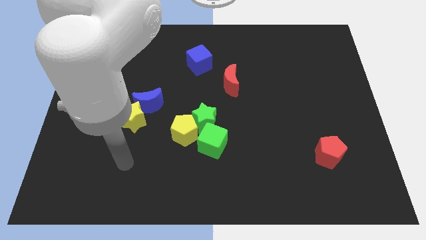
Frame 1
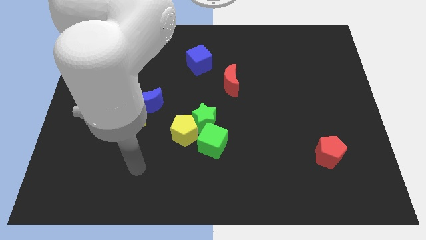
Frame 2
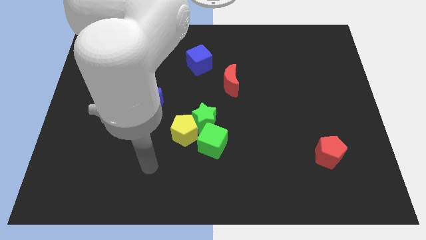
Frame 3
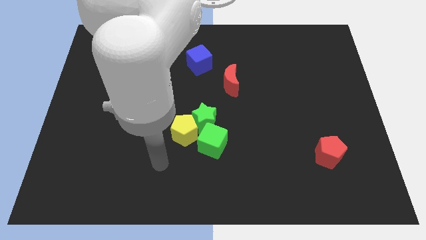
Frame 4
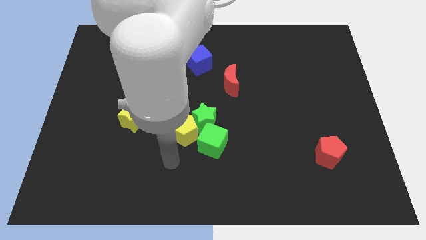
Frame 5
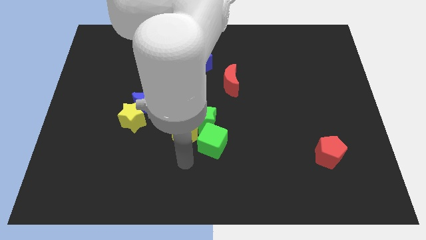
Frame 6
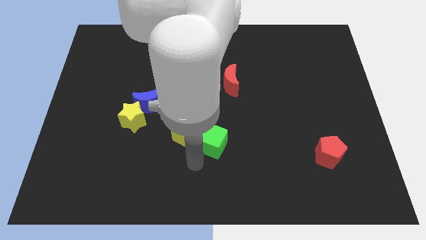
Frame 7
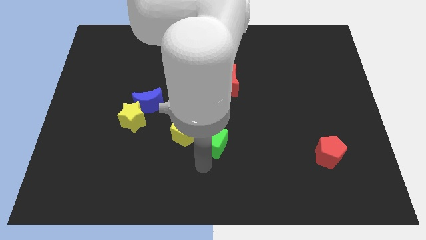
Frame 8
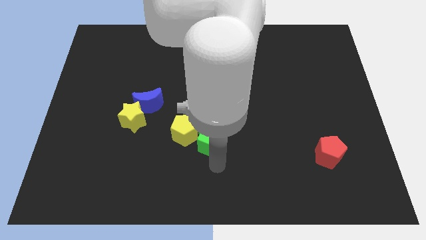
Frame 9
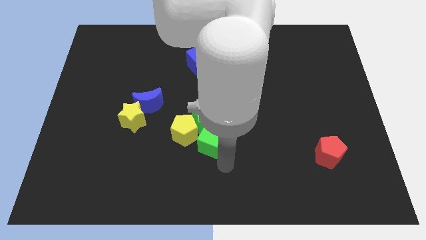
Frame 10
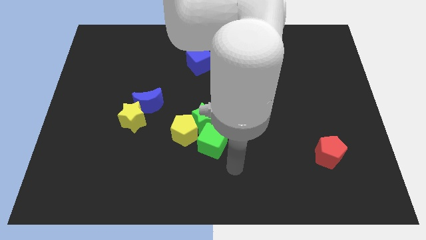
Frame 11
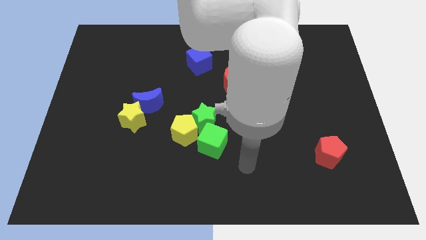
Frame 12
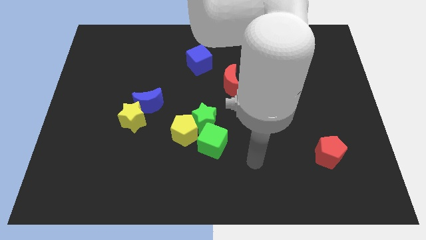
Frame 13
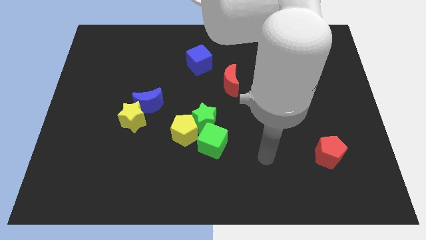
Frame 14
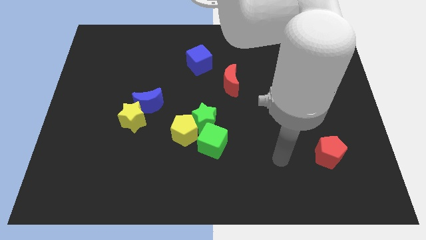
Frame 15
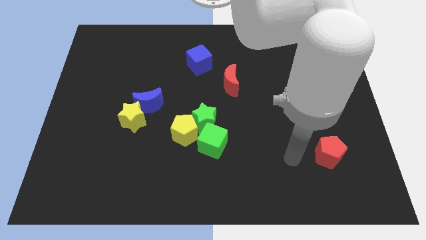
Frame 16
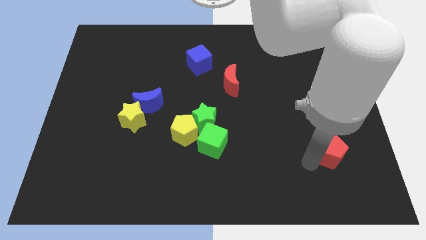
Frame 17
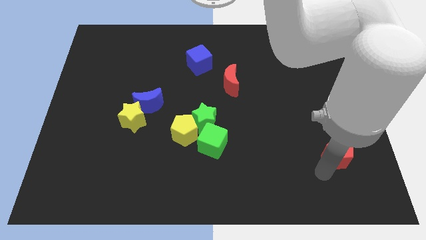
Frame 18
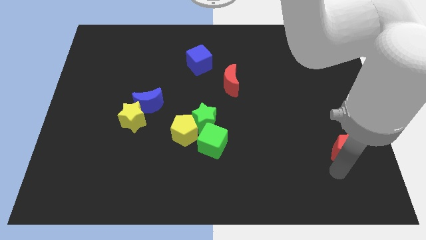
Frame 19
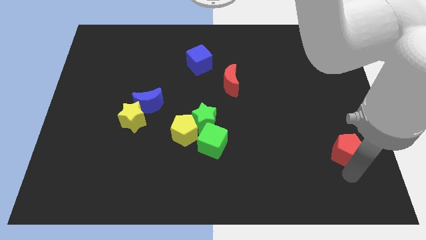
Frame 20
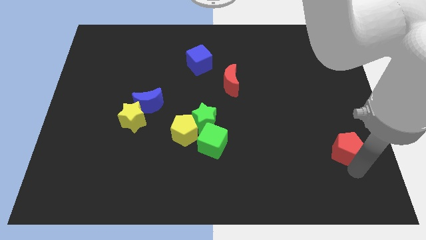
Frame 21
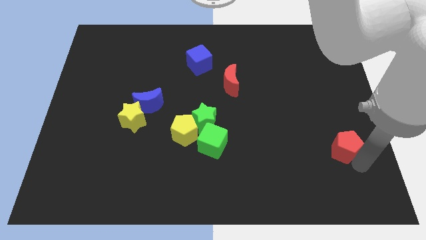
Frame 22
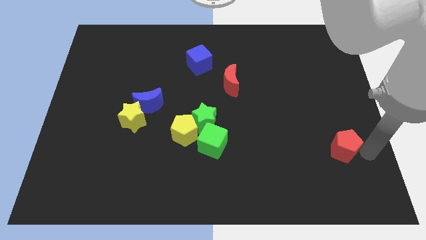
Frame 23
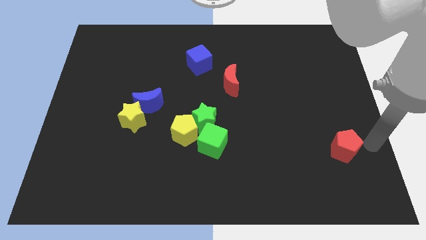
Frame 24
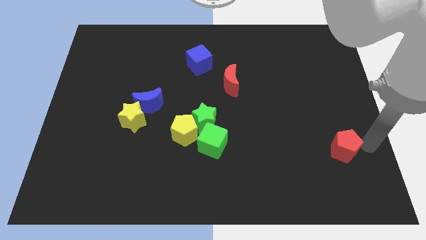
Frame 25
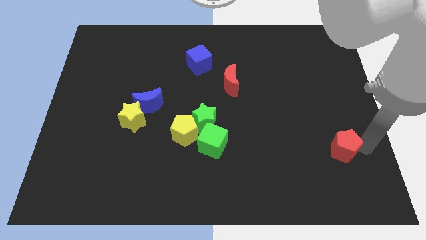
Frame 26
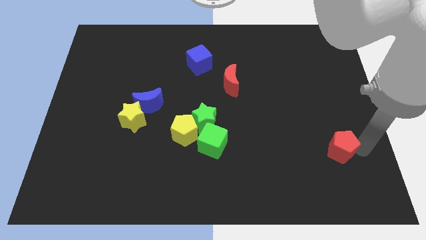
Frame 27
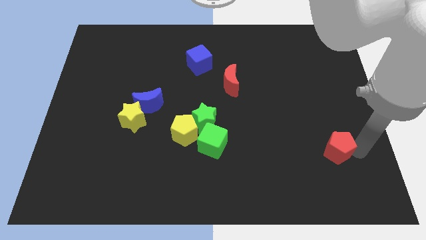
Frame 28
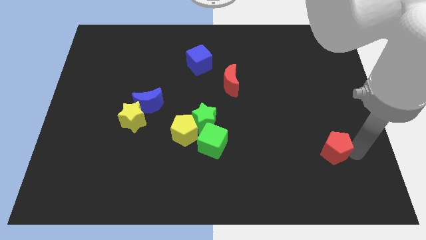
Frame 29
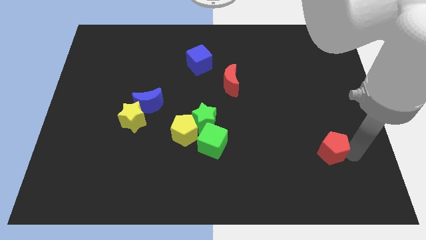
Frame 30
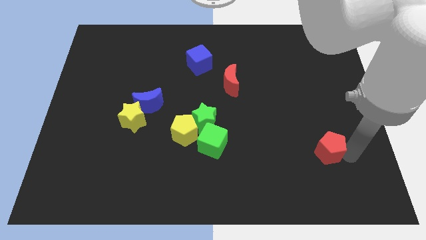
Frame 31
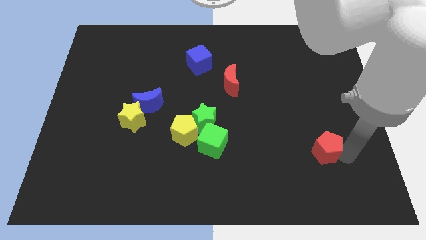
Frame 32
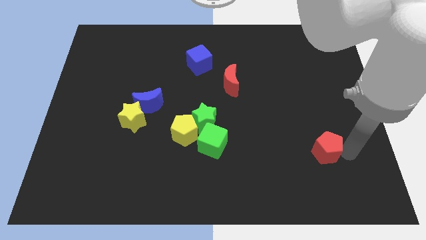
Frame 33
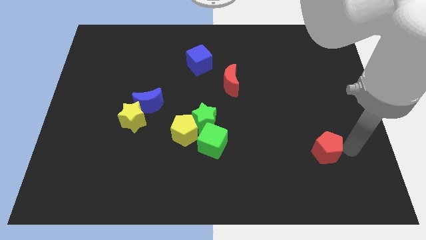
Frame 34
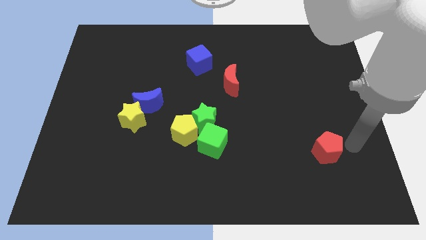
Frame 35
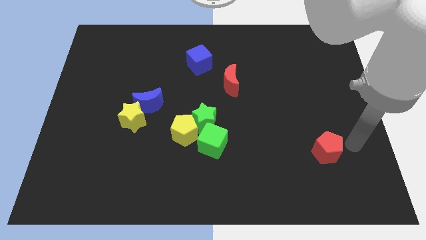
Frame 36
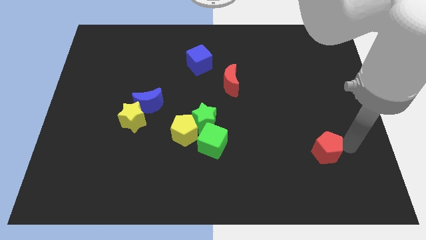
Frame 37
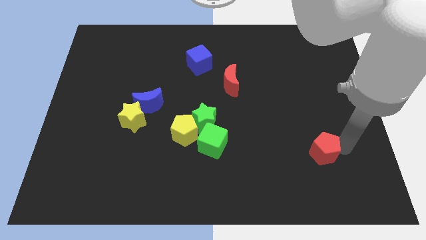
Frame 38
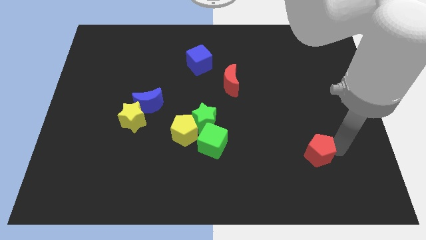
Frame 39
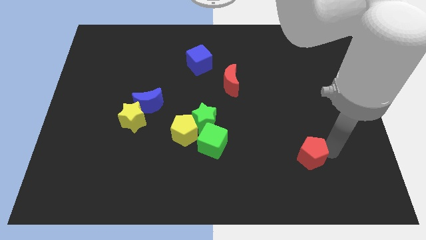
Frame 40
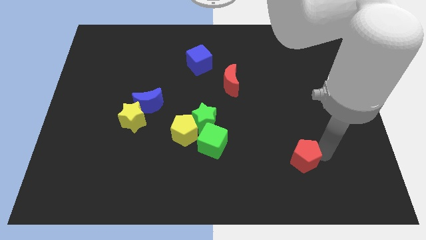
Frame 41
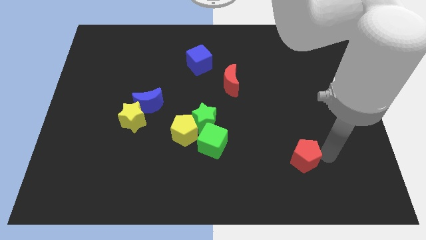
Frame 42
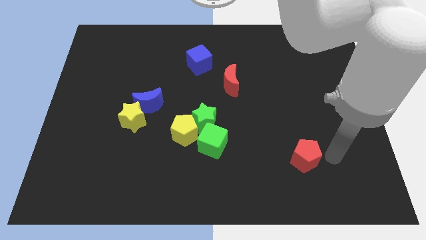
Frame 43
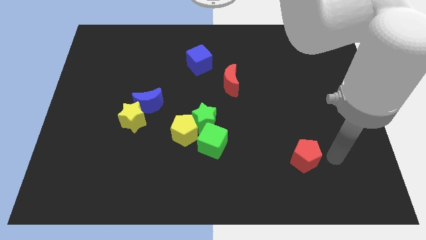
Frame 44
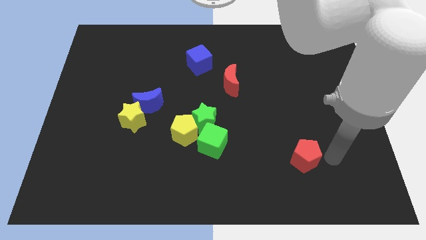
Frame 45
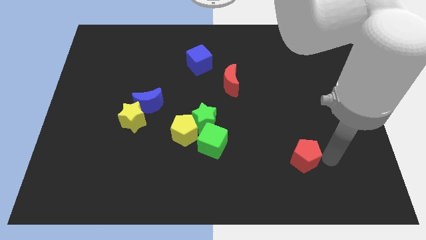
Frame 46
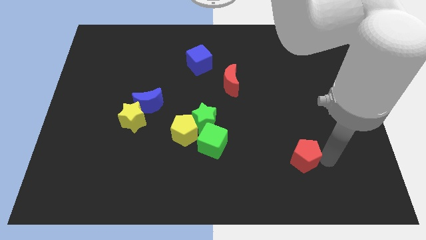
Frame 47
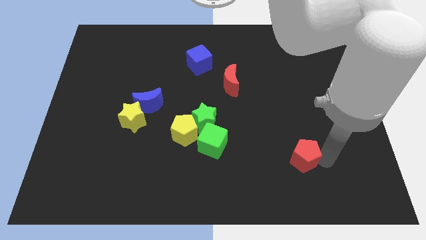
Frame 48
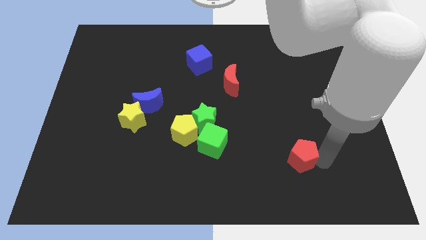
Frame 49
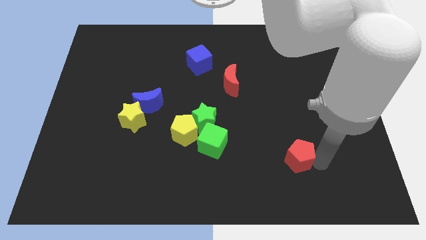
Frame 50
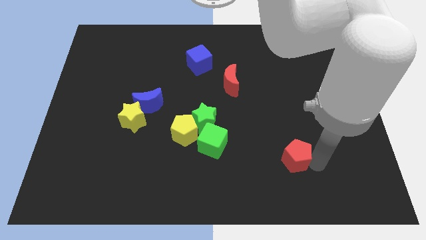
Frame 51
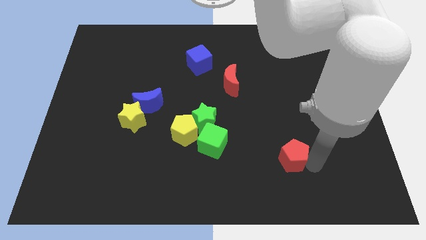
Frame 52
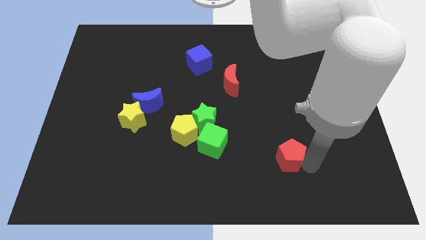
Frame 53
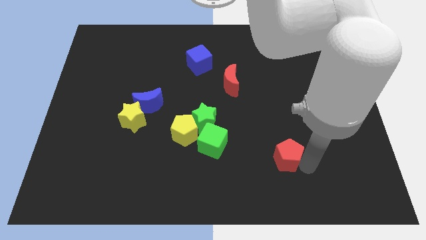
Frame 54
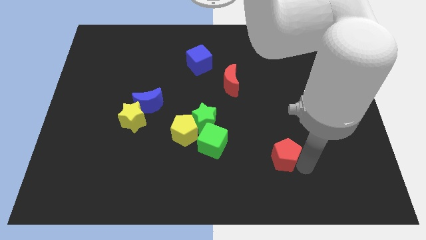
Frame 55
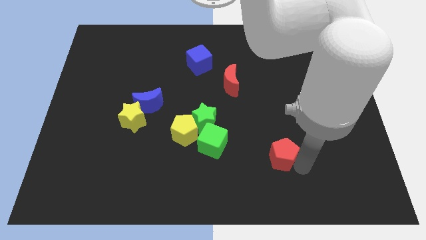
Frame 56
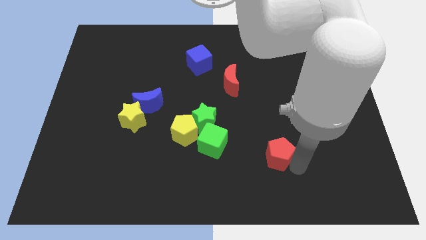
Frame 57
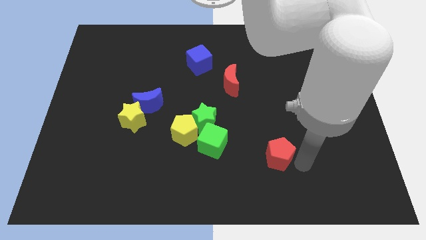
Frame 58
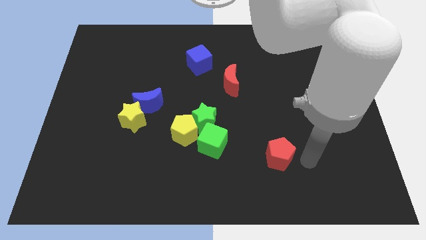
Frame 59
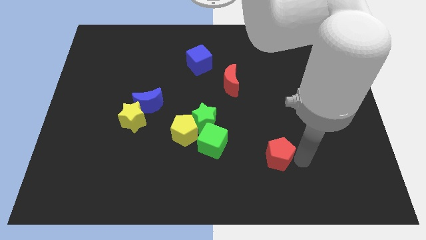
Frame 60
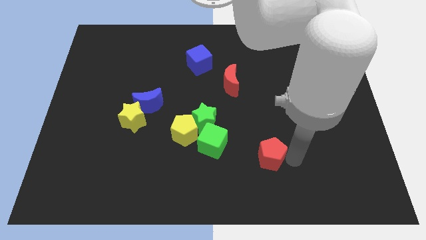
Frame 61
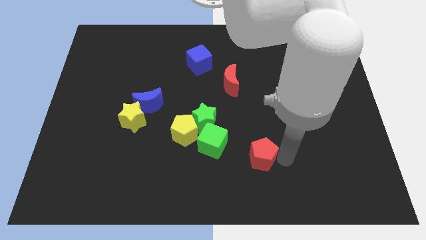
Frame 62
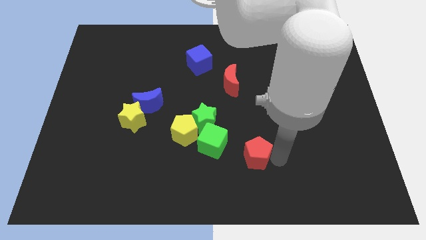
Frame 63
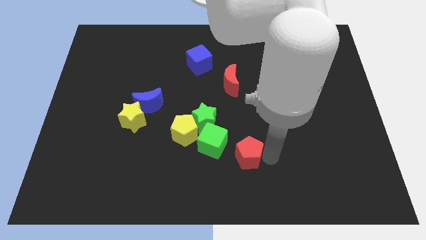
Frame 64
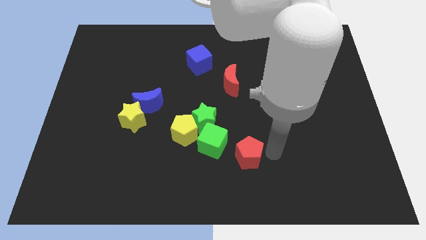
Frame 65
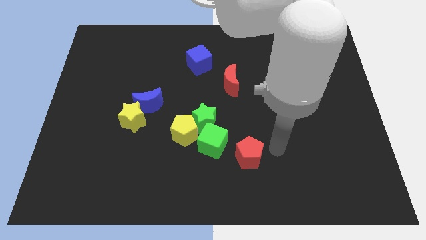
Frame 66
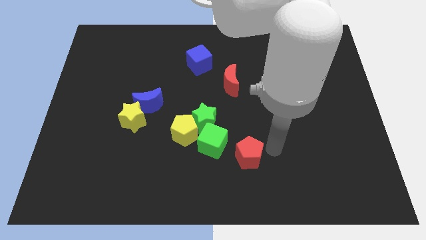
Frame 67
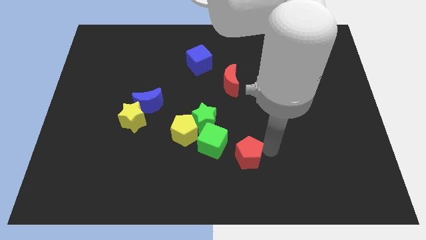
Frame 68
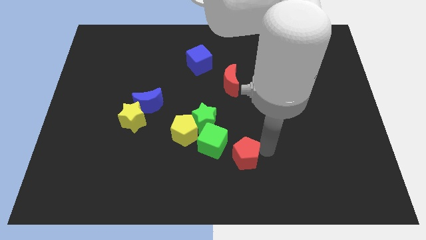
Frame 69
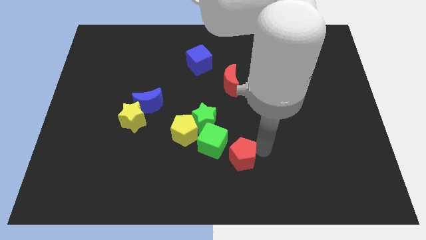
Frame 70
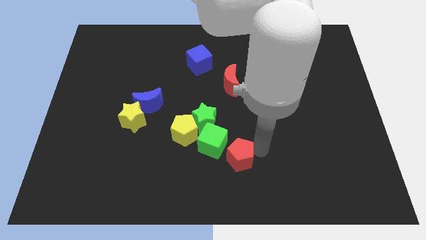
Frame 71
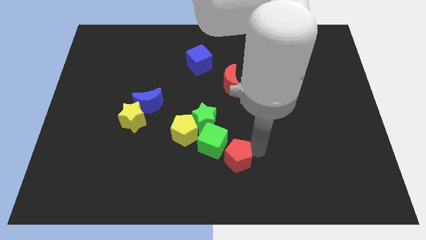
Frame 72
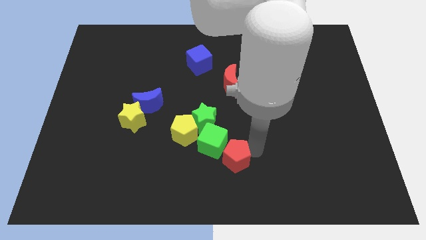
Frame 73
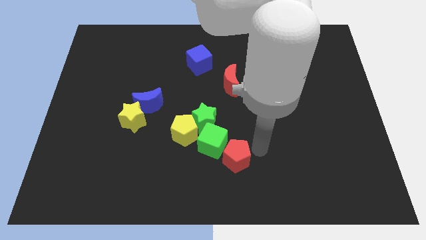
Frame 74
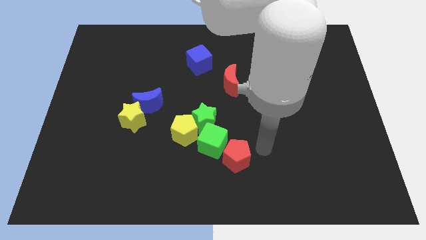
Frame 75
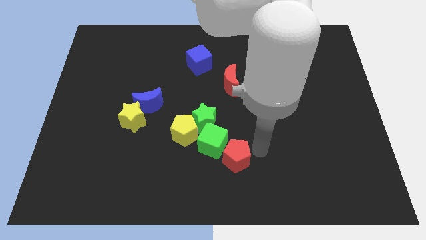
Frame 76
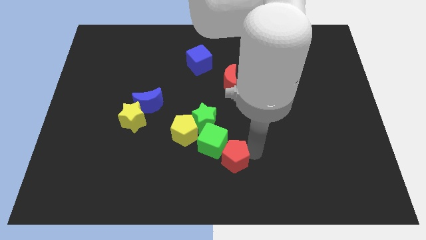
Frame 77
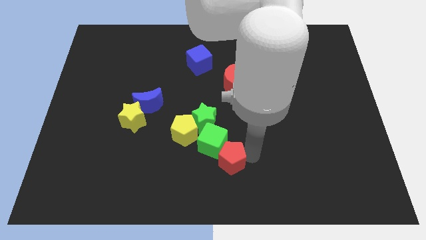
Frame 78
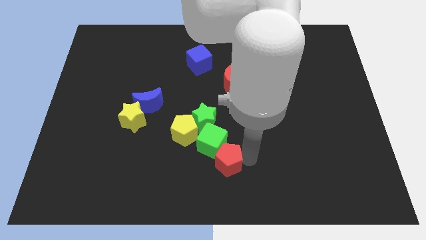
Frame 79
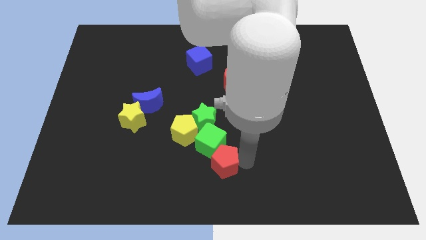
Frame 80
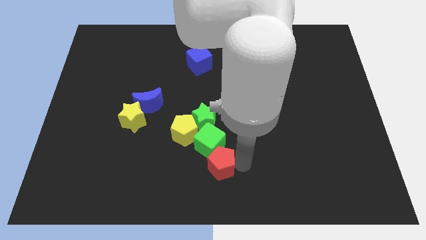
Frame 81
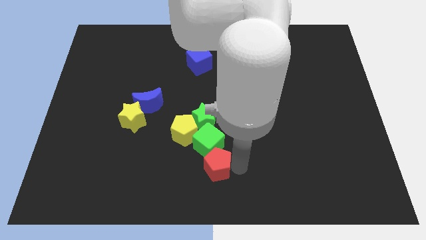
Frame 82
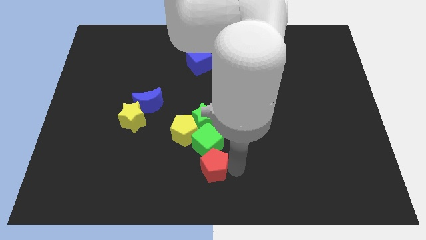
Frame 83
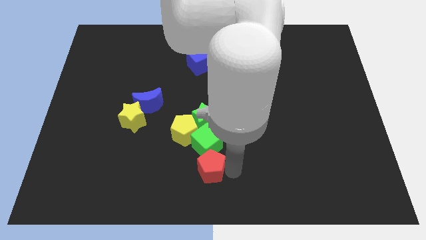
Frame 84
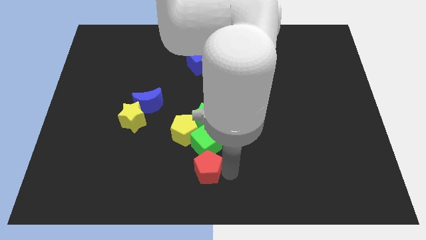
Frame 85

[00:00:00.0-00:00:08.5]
slide the red pentagon to the bottom left side of the green cube
